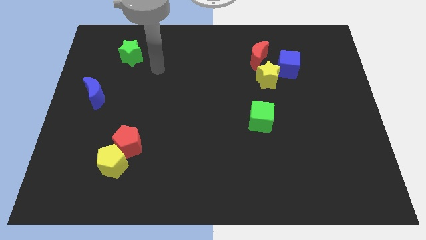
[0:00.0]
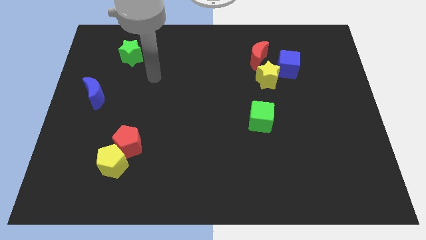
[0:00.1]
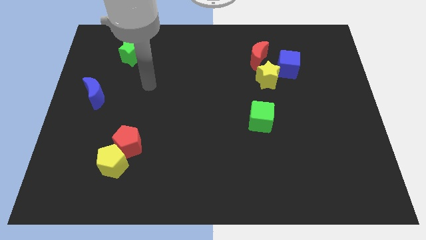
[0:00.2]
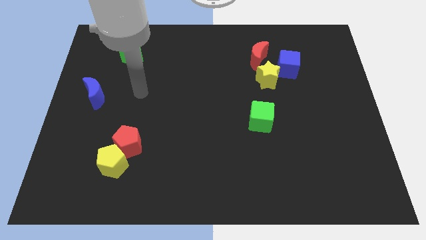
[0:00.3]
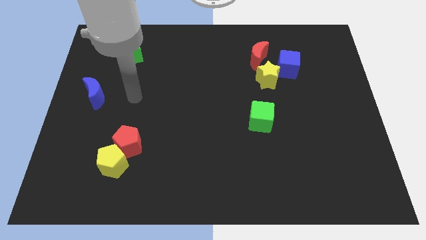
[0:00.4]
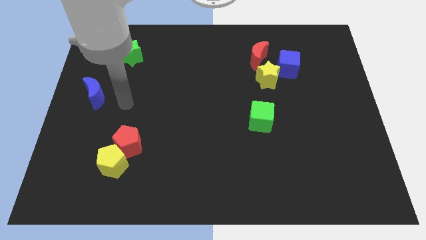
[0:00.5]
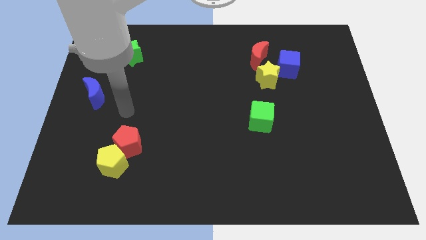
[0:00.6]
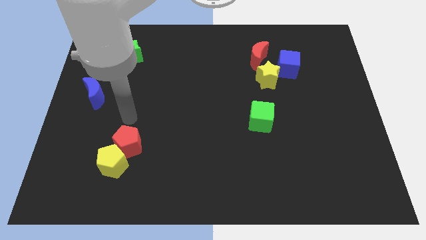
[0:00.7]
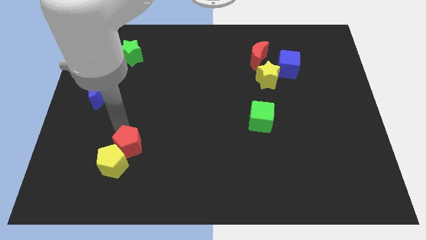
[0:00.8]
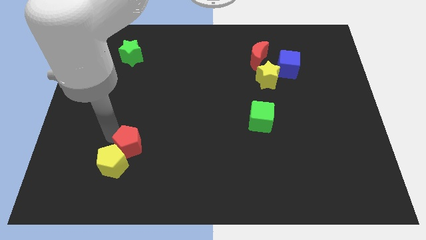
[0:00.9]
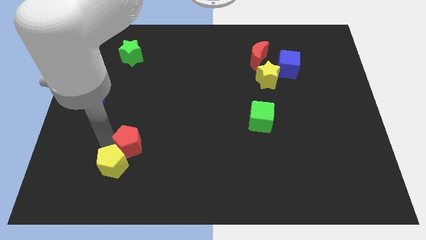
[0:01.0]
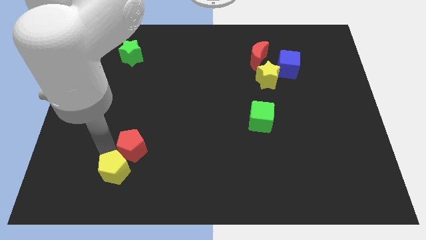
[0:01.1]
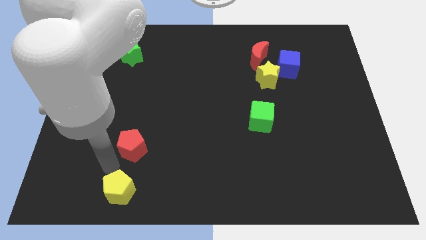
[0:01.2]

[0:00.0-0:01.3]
move the red pentagon away from the yellow pentagon

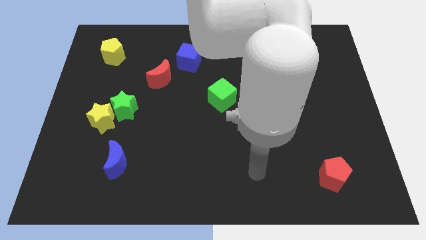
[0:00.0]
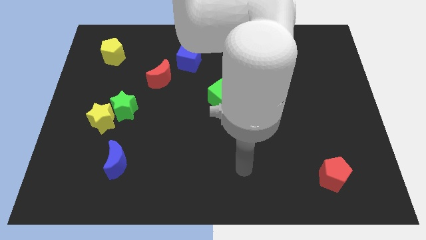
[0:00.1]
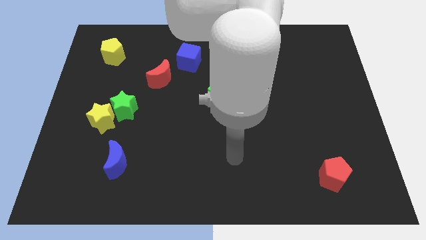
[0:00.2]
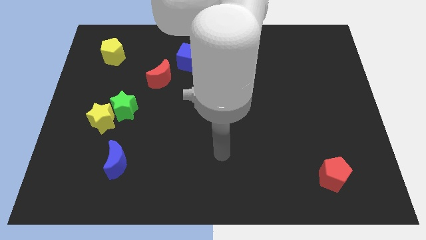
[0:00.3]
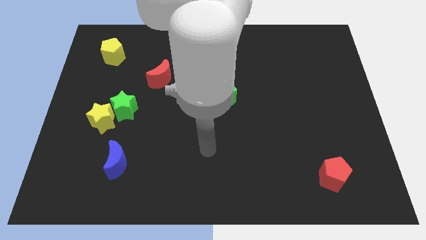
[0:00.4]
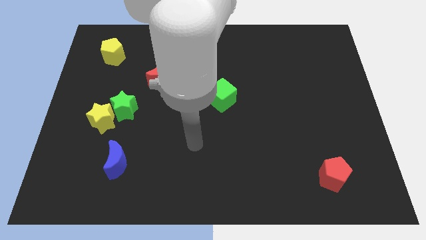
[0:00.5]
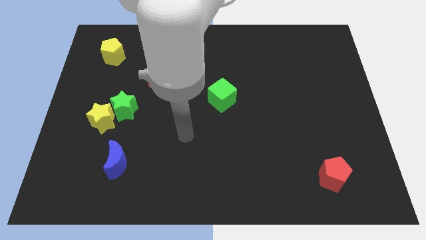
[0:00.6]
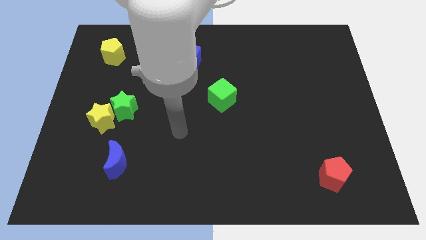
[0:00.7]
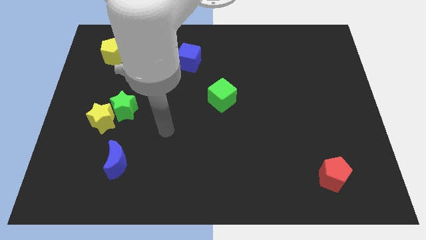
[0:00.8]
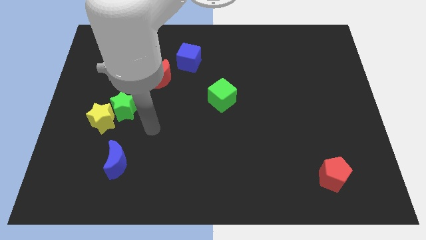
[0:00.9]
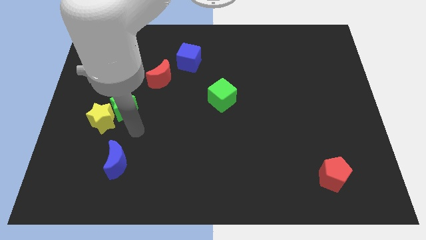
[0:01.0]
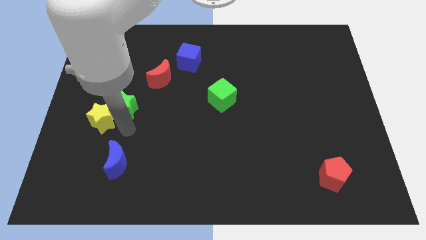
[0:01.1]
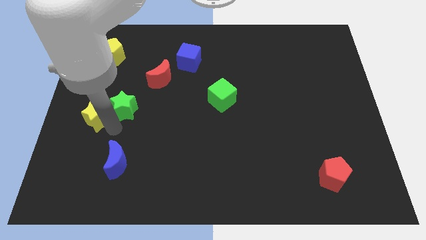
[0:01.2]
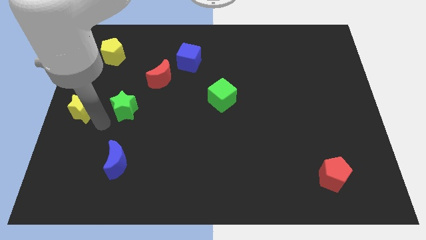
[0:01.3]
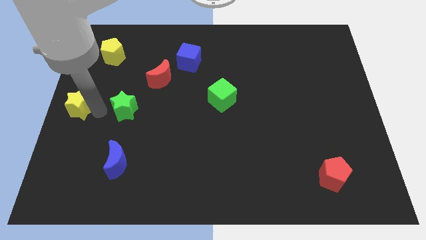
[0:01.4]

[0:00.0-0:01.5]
pull the green star apart from the yellow star

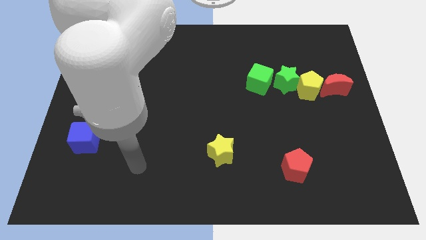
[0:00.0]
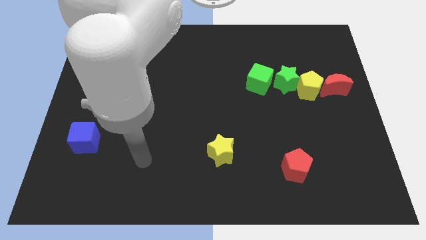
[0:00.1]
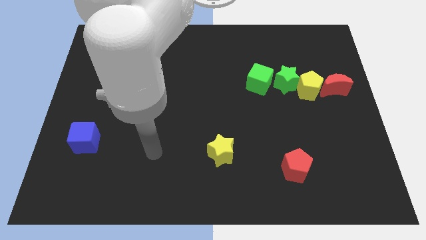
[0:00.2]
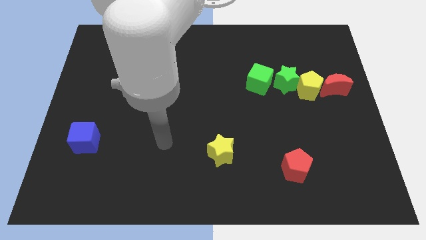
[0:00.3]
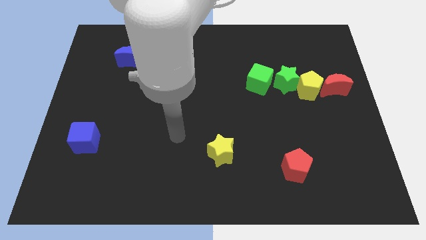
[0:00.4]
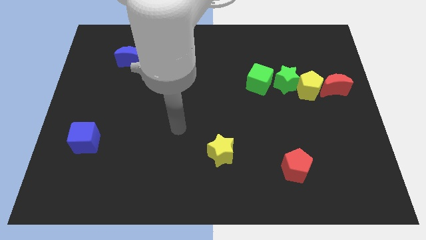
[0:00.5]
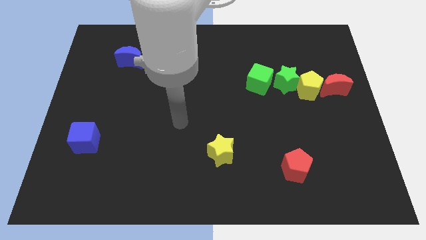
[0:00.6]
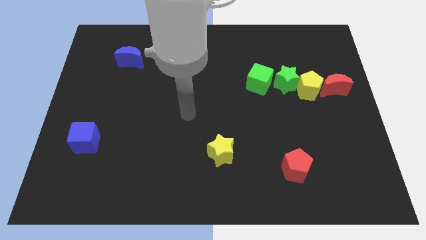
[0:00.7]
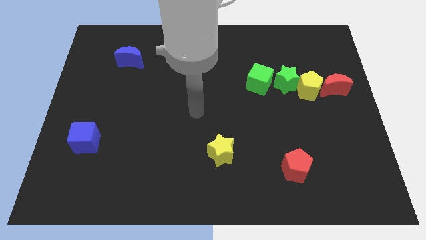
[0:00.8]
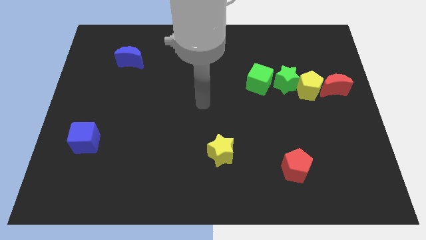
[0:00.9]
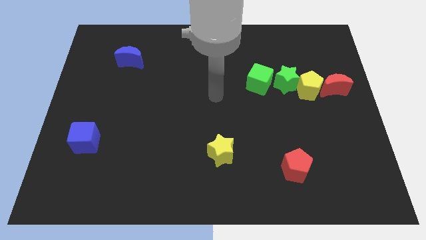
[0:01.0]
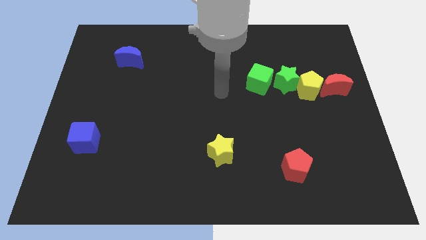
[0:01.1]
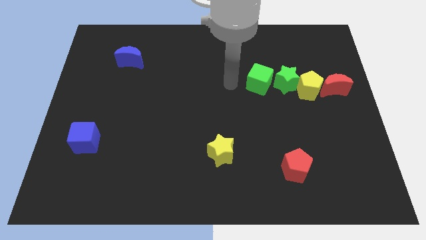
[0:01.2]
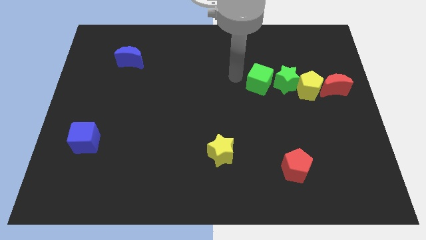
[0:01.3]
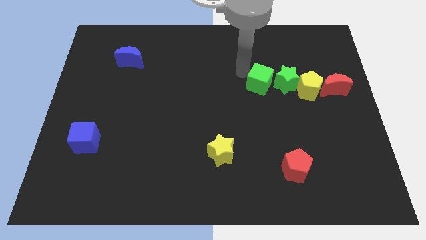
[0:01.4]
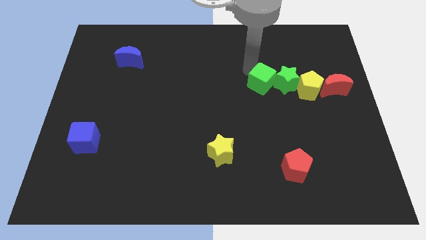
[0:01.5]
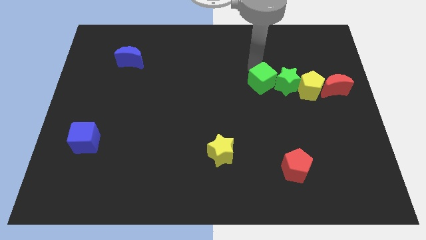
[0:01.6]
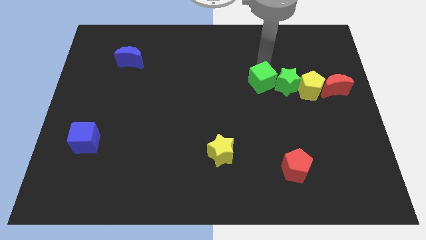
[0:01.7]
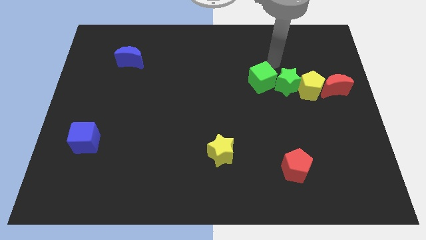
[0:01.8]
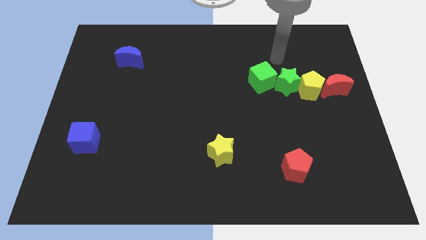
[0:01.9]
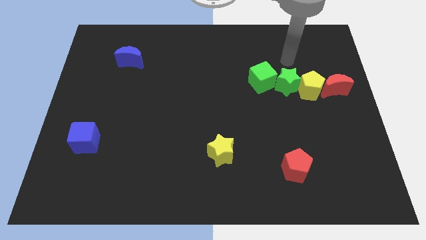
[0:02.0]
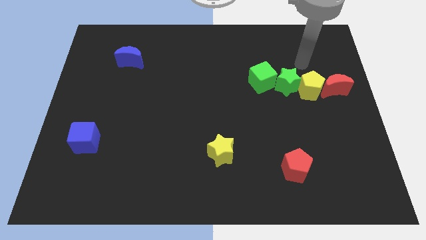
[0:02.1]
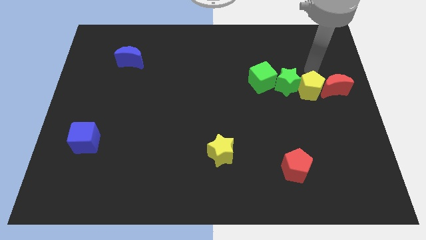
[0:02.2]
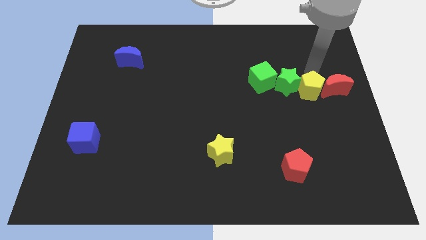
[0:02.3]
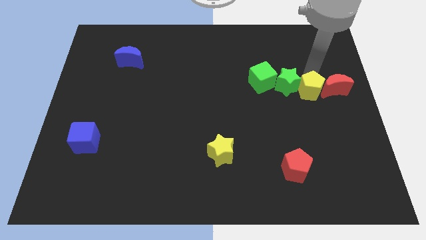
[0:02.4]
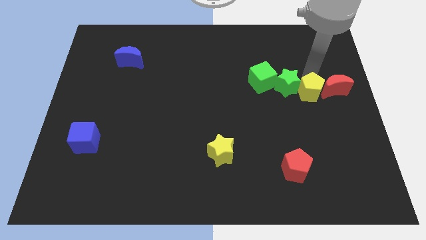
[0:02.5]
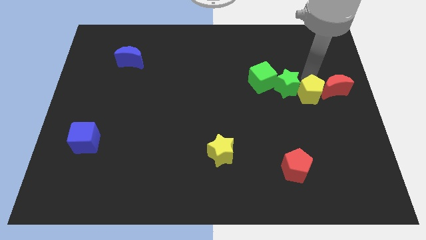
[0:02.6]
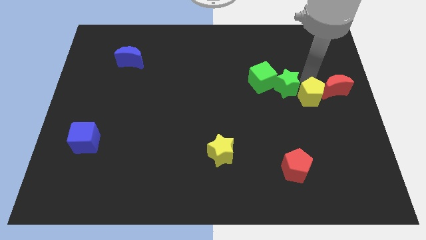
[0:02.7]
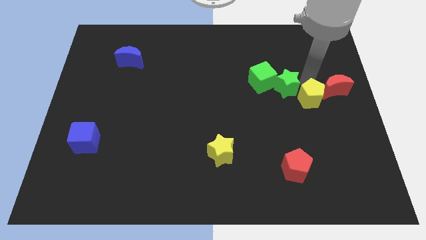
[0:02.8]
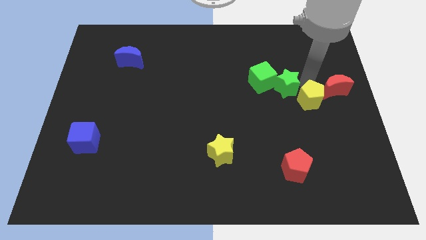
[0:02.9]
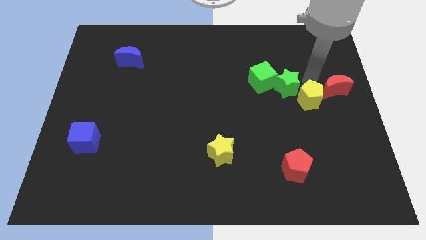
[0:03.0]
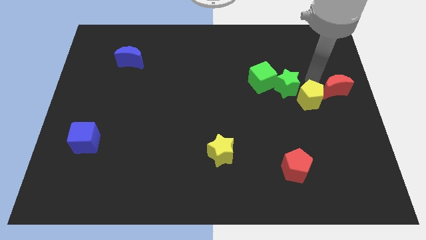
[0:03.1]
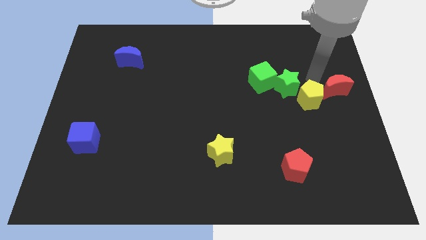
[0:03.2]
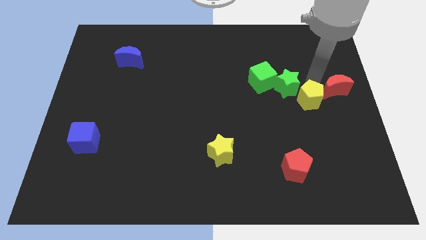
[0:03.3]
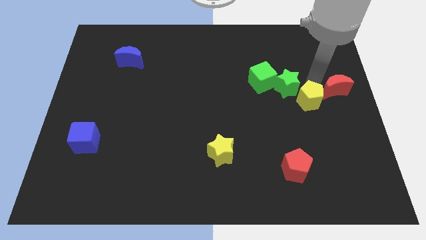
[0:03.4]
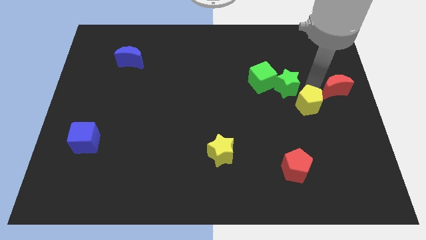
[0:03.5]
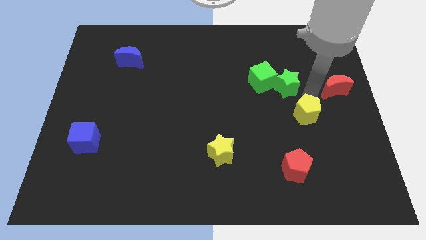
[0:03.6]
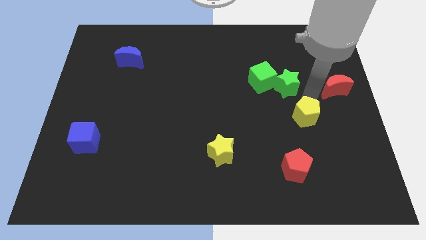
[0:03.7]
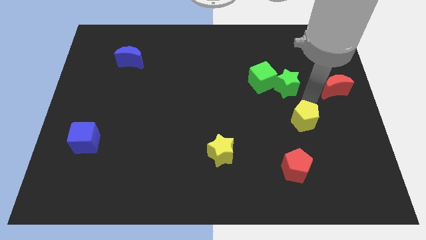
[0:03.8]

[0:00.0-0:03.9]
separate the yellow pentagon from the green star and red moon

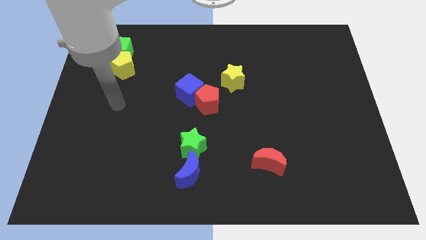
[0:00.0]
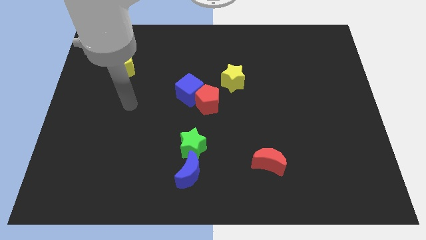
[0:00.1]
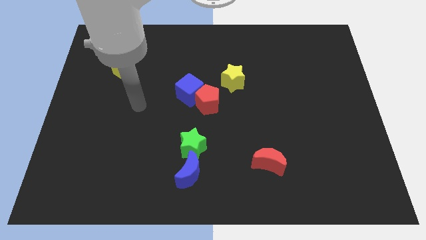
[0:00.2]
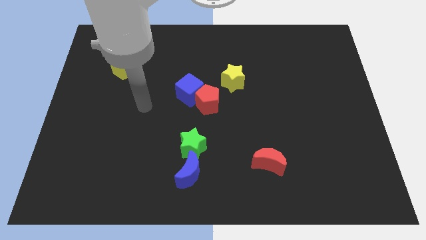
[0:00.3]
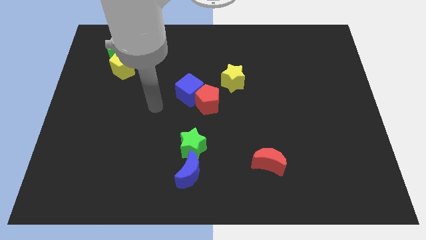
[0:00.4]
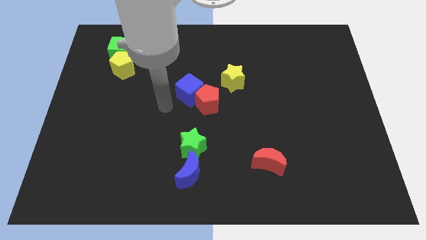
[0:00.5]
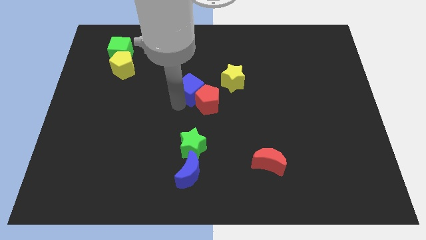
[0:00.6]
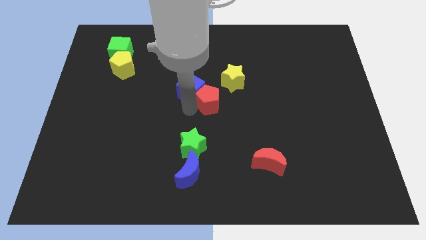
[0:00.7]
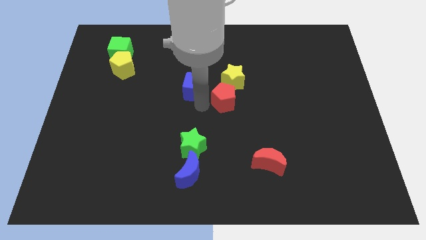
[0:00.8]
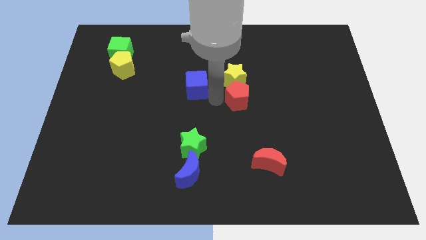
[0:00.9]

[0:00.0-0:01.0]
separate the blue cube from the red pentagon

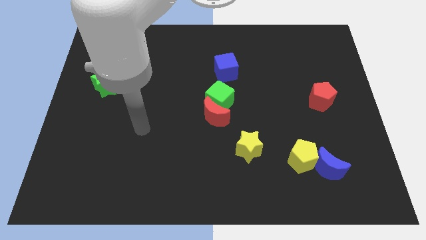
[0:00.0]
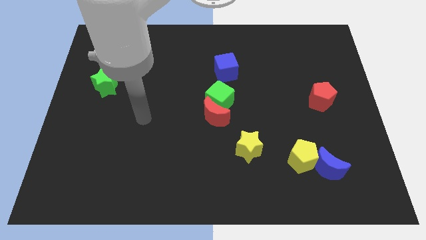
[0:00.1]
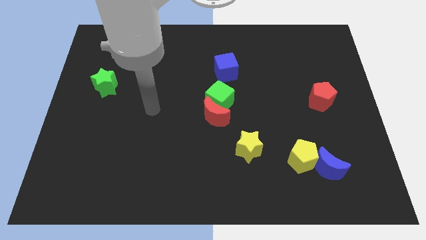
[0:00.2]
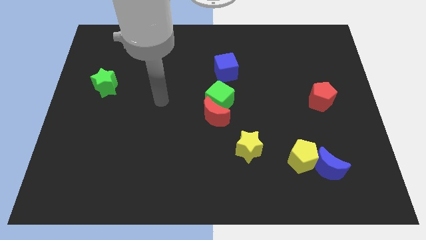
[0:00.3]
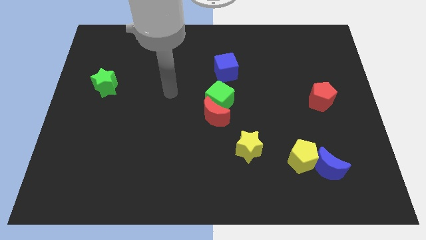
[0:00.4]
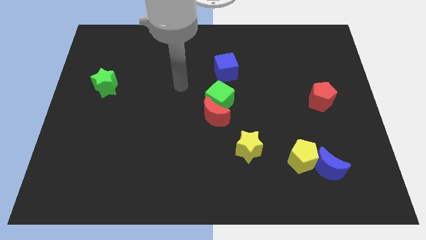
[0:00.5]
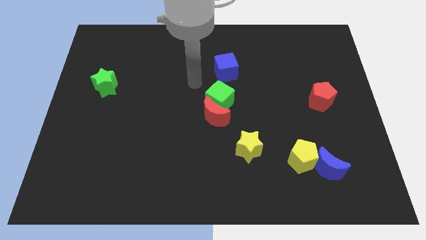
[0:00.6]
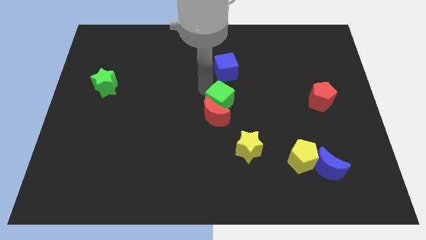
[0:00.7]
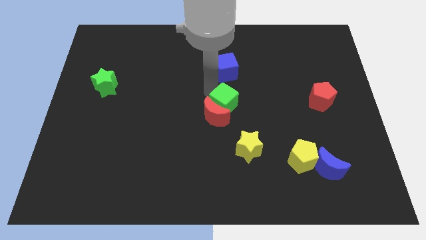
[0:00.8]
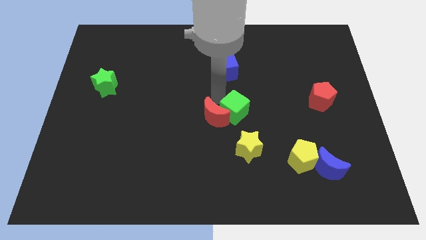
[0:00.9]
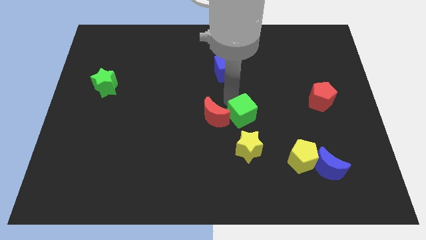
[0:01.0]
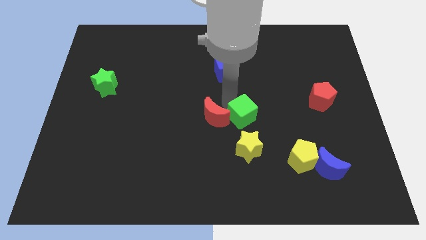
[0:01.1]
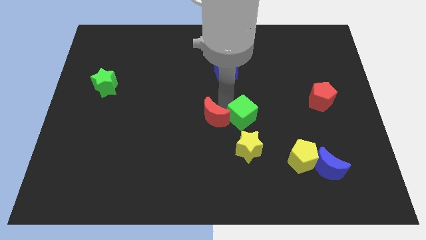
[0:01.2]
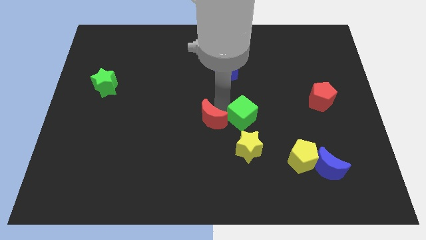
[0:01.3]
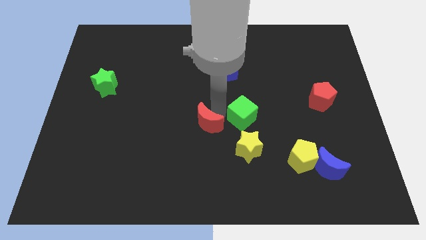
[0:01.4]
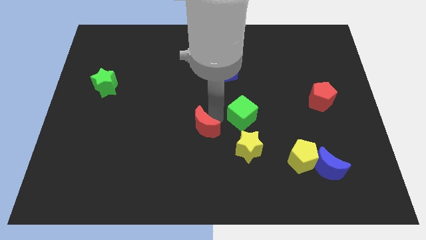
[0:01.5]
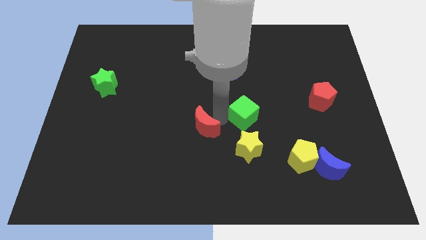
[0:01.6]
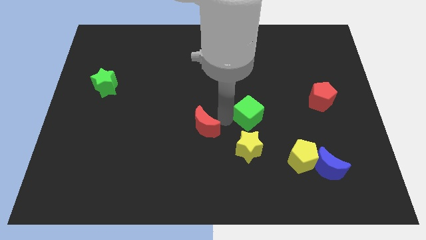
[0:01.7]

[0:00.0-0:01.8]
move the red moon away from the green cube

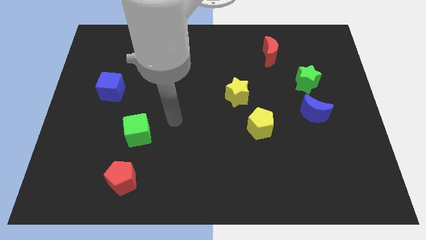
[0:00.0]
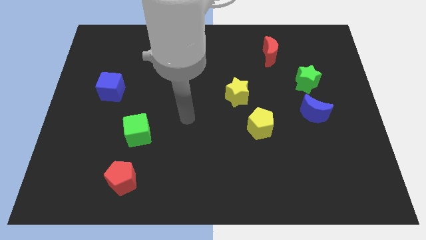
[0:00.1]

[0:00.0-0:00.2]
separate the blue moon from the green star
